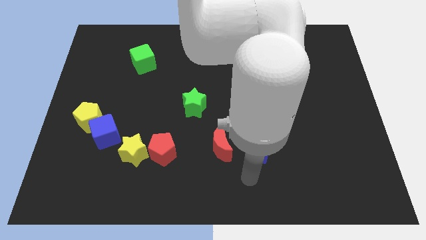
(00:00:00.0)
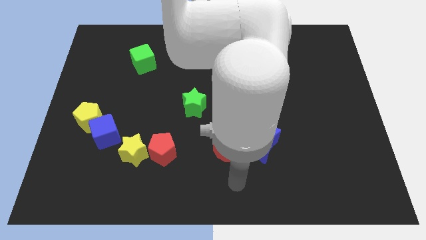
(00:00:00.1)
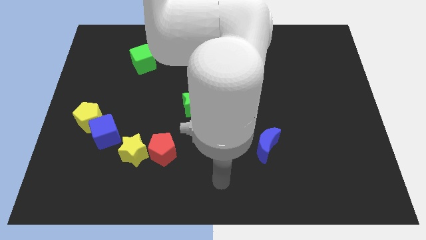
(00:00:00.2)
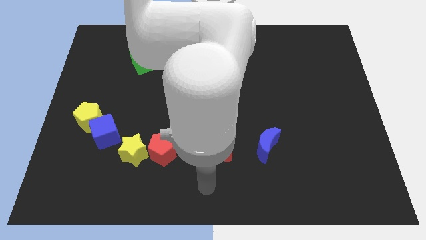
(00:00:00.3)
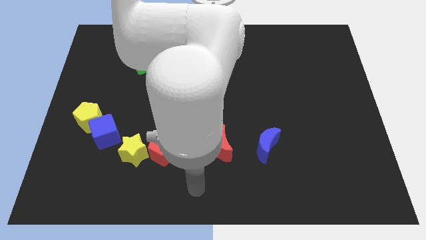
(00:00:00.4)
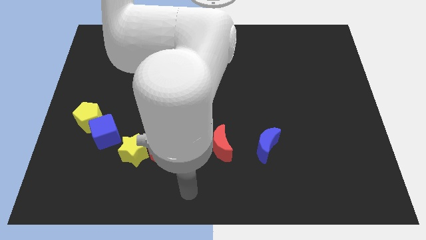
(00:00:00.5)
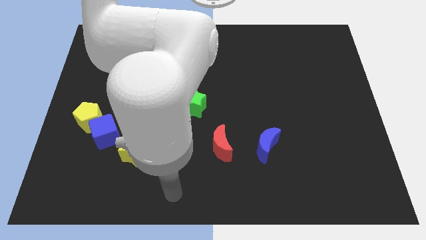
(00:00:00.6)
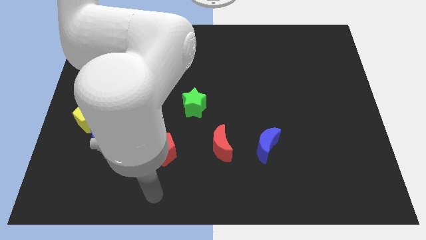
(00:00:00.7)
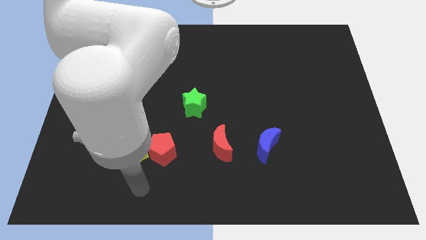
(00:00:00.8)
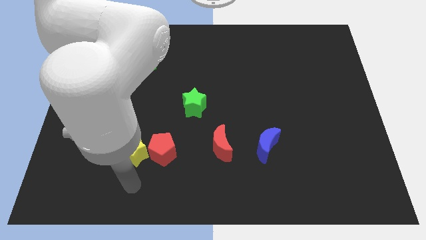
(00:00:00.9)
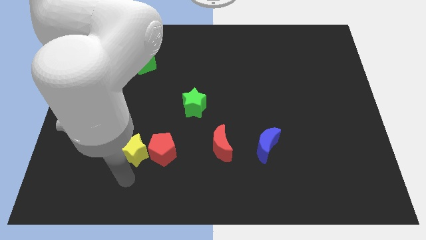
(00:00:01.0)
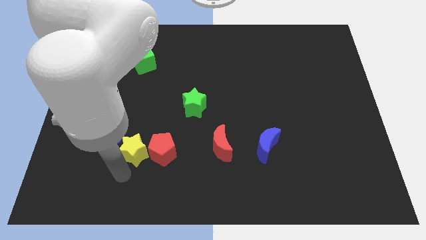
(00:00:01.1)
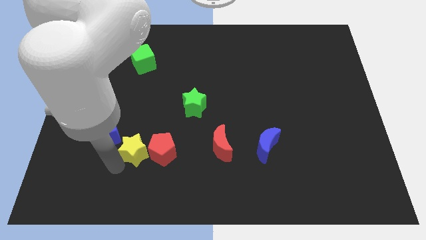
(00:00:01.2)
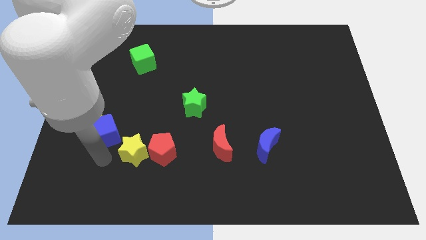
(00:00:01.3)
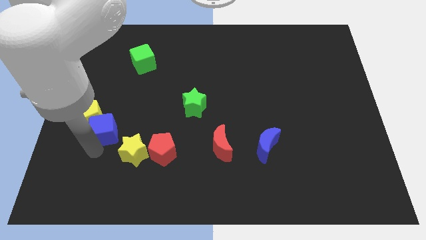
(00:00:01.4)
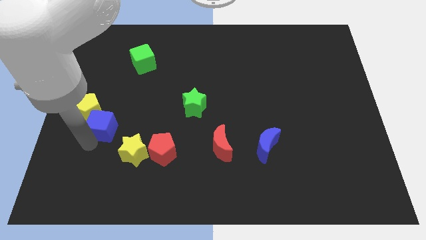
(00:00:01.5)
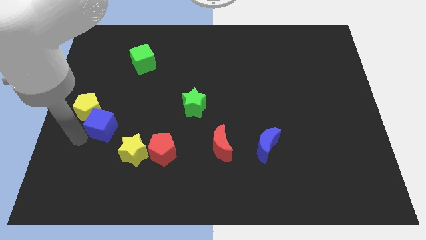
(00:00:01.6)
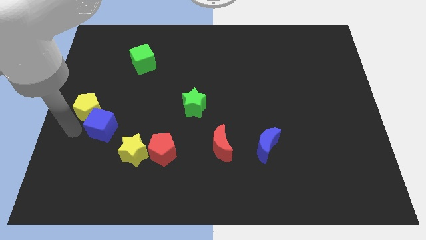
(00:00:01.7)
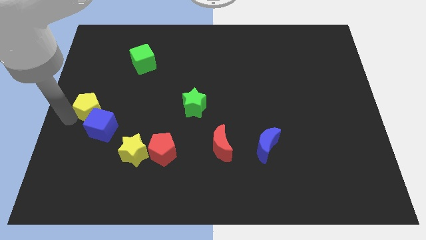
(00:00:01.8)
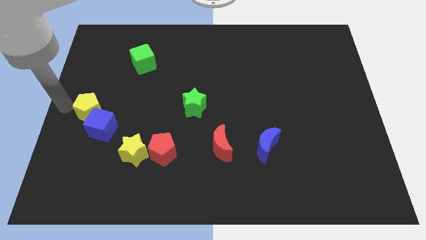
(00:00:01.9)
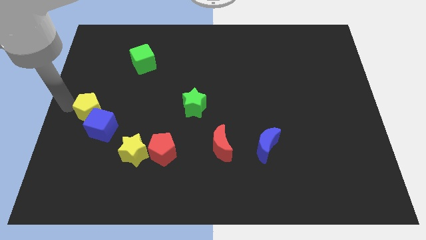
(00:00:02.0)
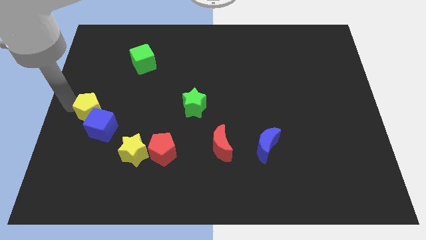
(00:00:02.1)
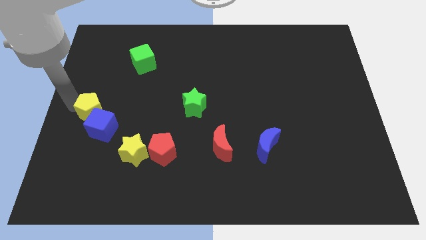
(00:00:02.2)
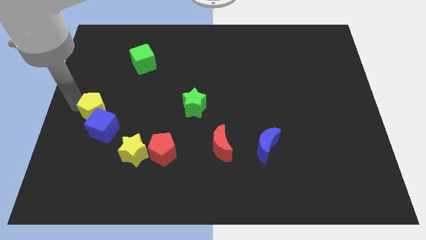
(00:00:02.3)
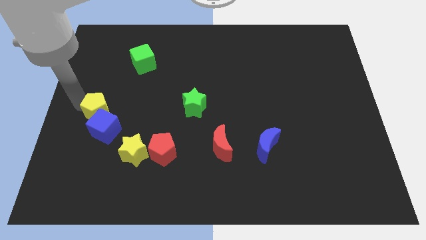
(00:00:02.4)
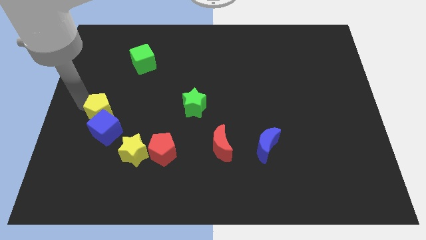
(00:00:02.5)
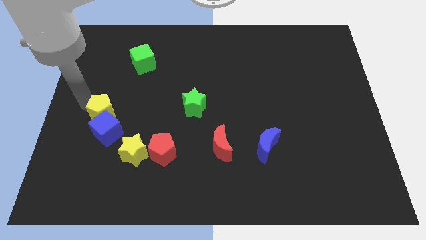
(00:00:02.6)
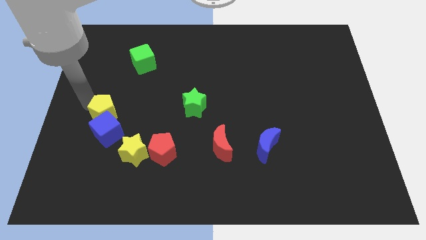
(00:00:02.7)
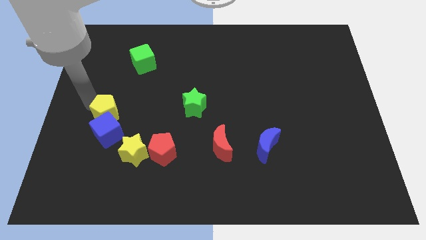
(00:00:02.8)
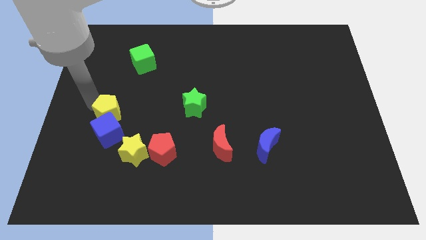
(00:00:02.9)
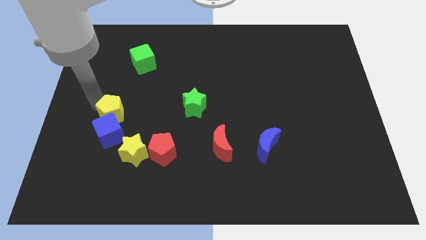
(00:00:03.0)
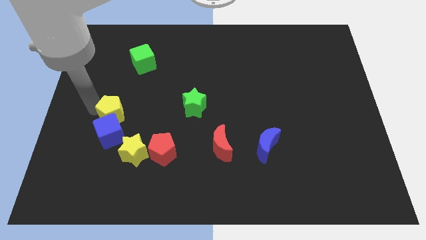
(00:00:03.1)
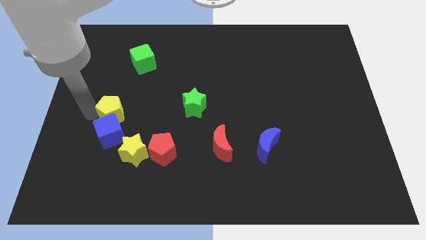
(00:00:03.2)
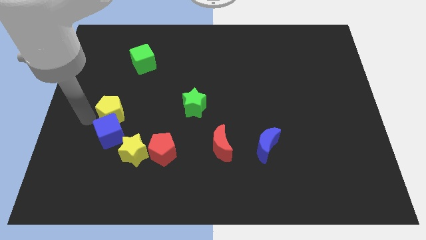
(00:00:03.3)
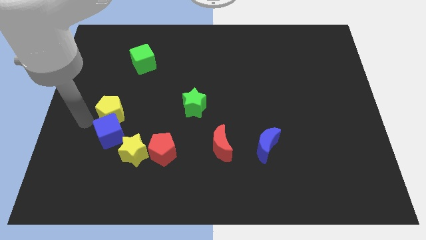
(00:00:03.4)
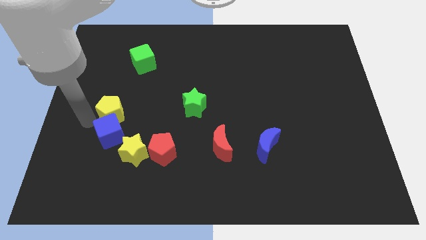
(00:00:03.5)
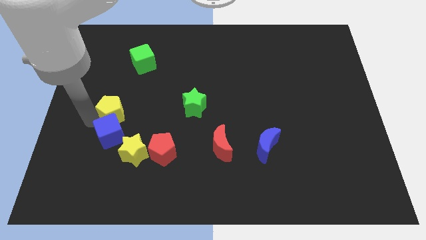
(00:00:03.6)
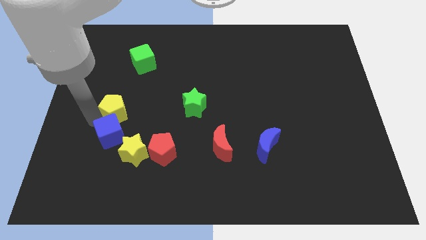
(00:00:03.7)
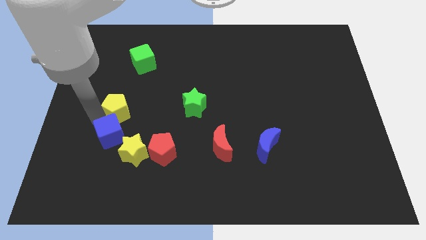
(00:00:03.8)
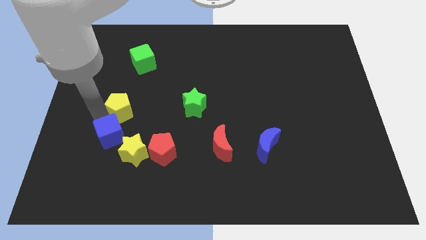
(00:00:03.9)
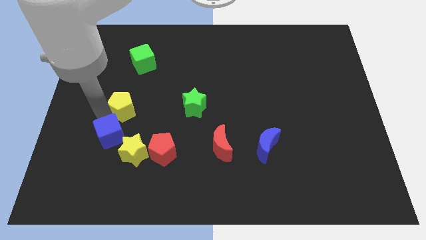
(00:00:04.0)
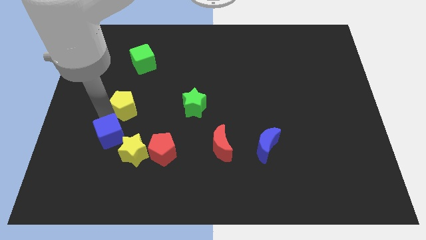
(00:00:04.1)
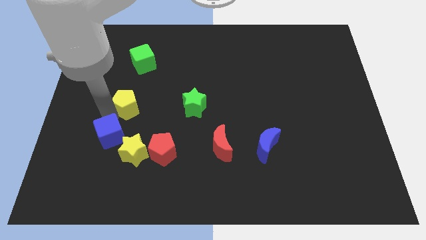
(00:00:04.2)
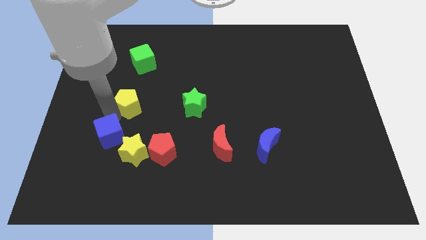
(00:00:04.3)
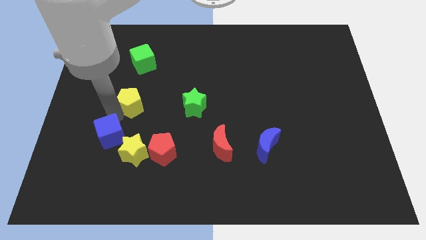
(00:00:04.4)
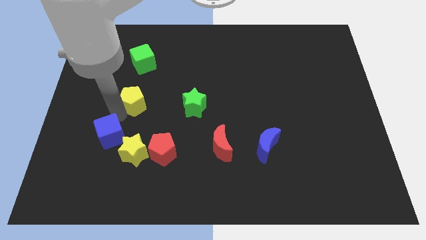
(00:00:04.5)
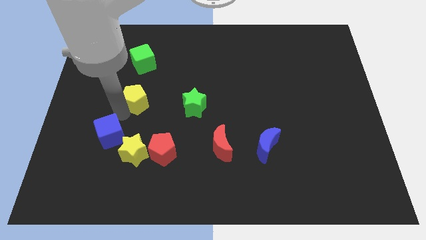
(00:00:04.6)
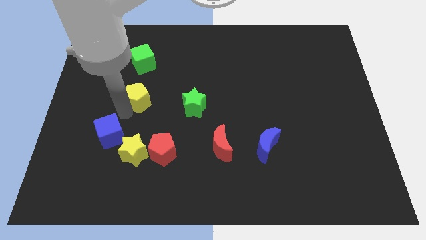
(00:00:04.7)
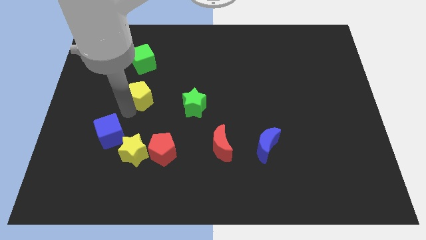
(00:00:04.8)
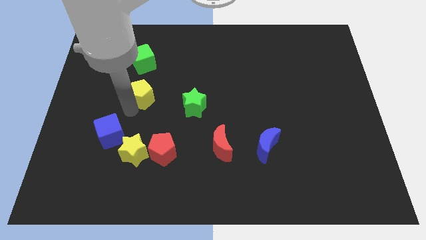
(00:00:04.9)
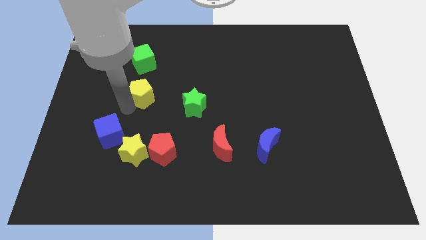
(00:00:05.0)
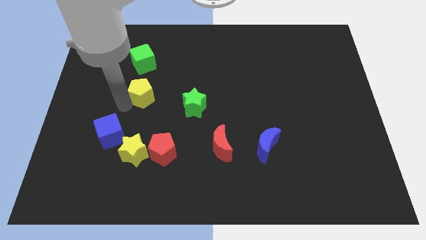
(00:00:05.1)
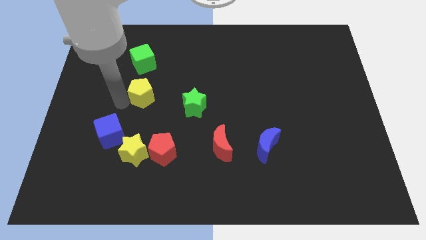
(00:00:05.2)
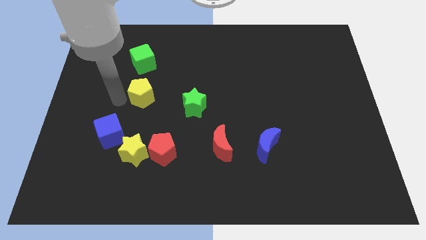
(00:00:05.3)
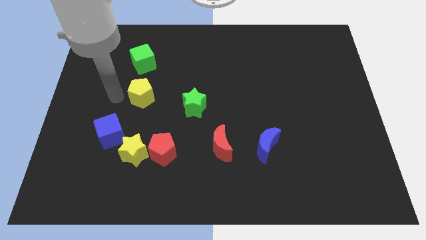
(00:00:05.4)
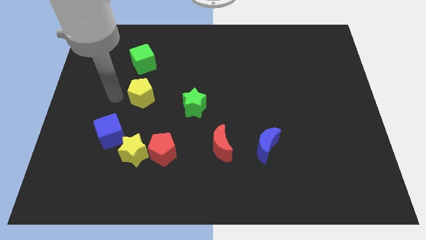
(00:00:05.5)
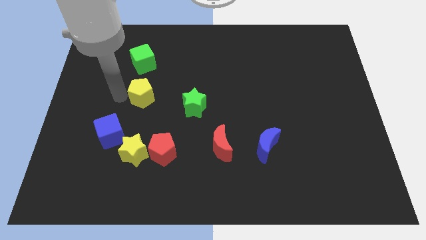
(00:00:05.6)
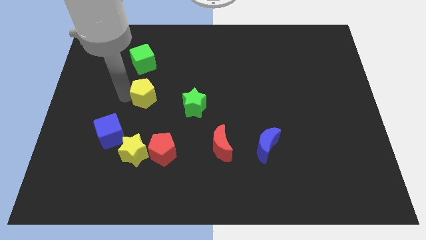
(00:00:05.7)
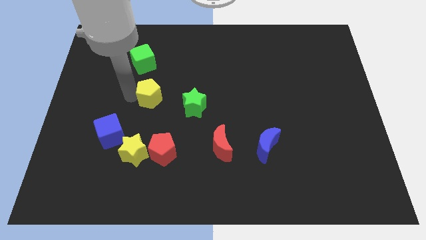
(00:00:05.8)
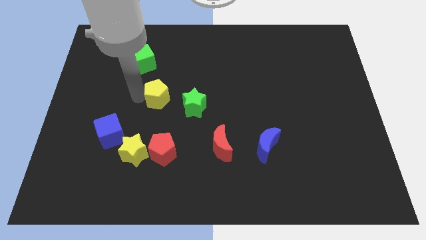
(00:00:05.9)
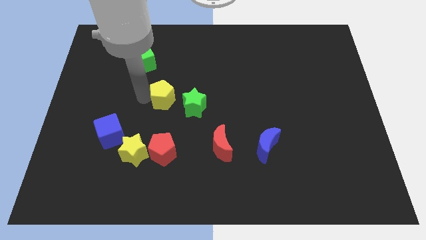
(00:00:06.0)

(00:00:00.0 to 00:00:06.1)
push the yellow pentagon to the center
